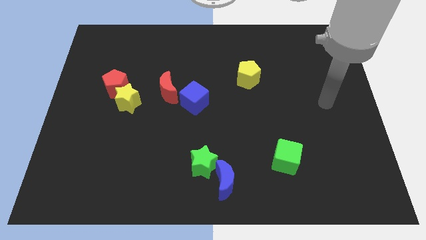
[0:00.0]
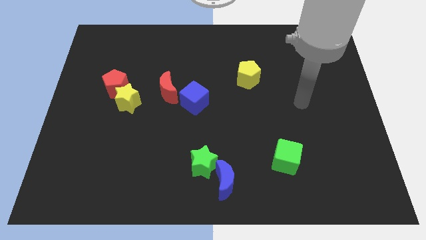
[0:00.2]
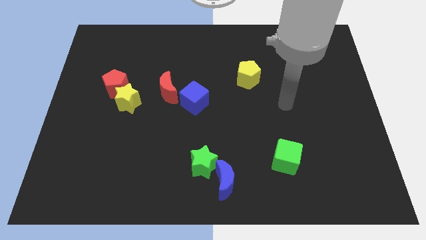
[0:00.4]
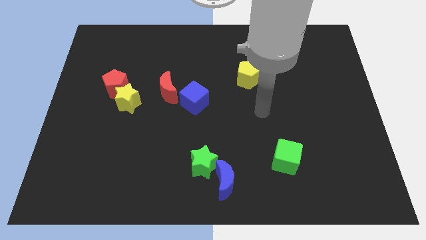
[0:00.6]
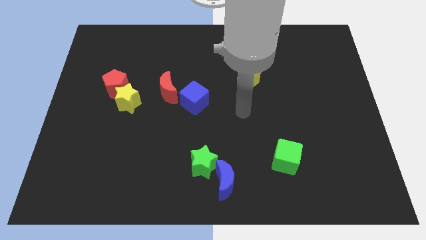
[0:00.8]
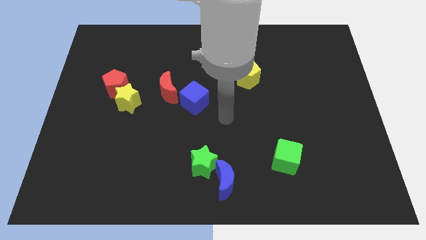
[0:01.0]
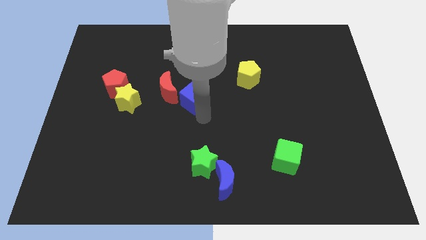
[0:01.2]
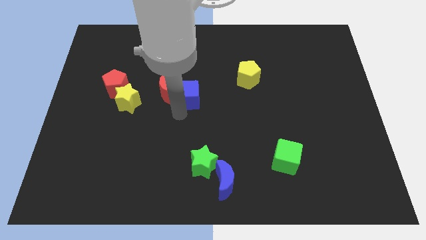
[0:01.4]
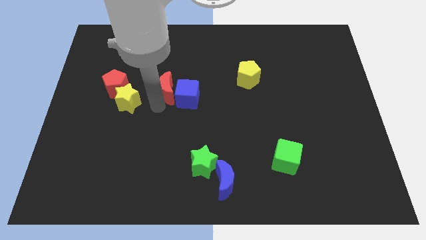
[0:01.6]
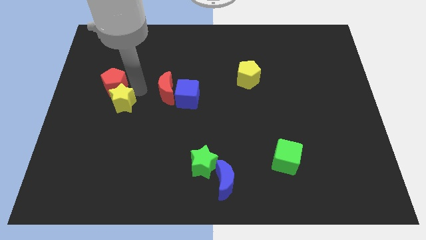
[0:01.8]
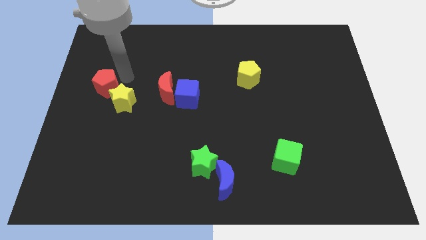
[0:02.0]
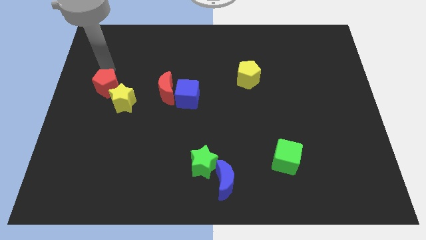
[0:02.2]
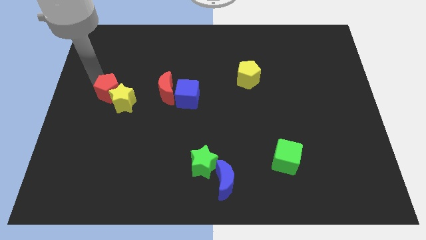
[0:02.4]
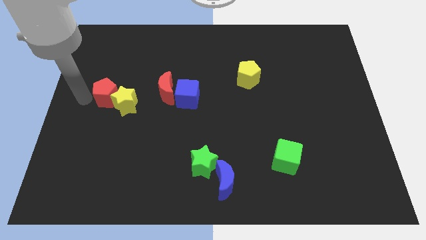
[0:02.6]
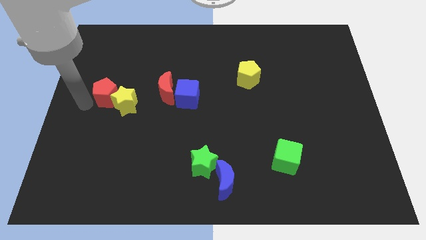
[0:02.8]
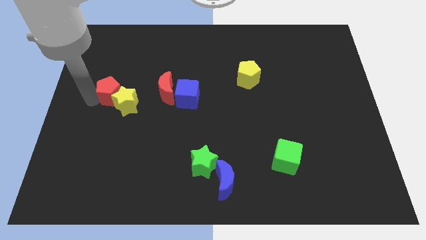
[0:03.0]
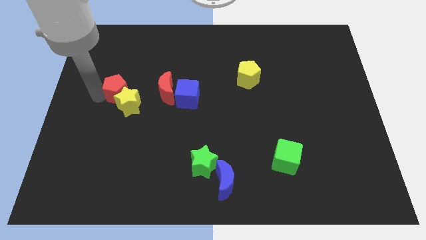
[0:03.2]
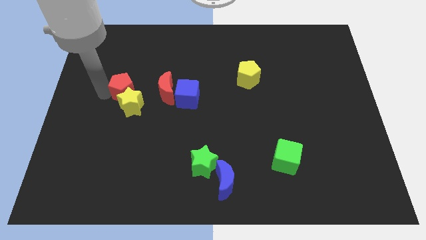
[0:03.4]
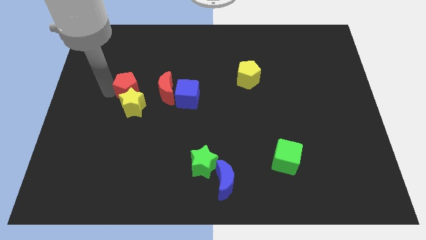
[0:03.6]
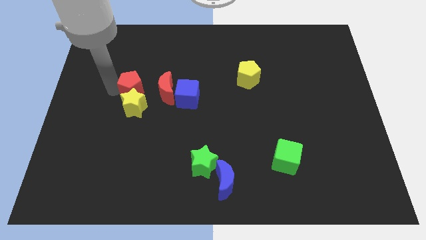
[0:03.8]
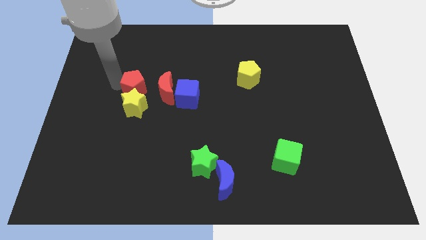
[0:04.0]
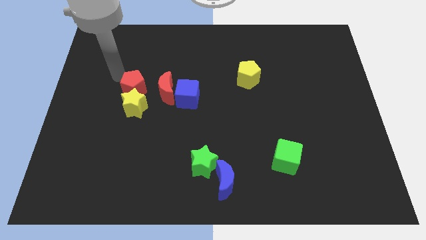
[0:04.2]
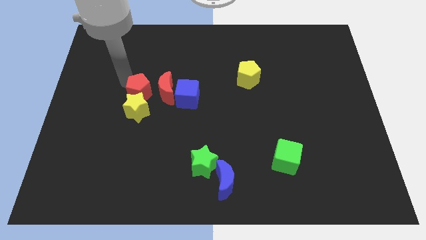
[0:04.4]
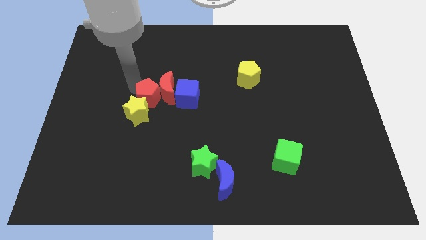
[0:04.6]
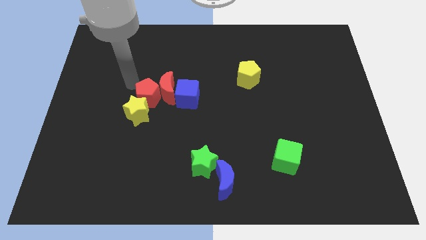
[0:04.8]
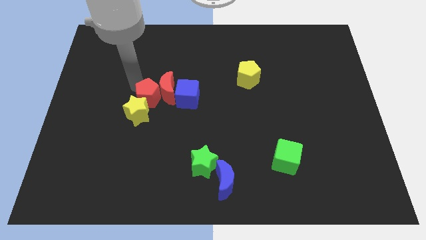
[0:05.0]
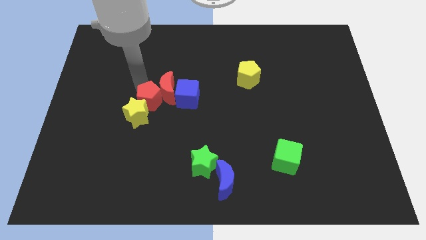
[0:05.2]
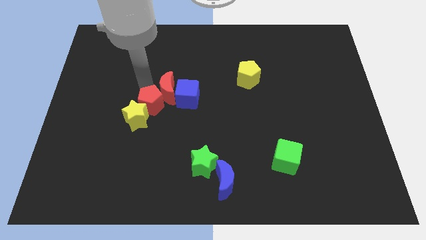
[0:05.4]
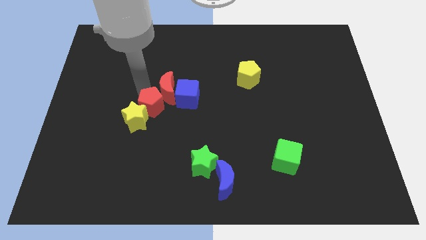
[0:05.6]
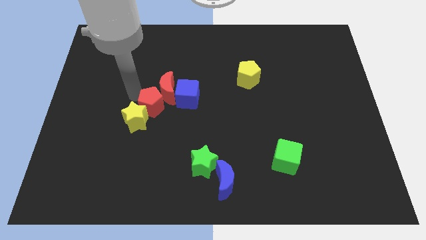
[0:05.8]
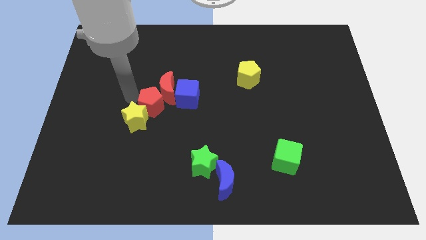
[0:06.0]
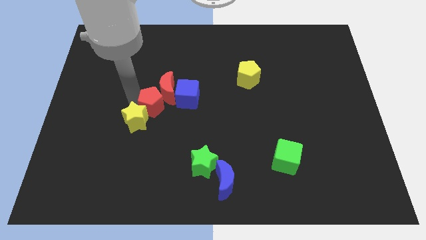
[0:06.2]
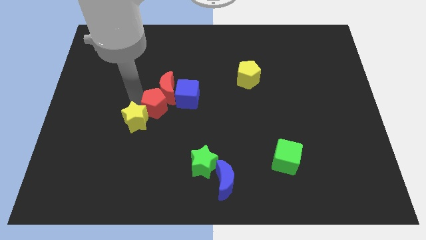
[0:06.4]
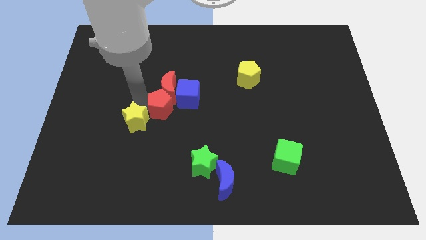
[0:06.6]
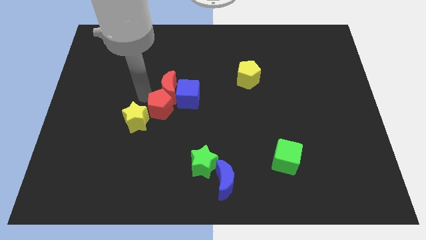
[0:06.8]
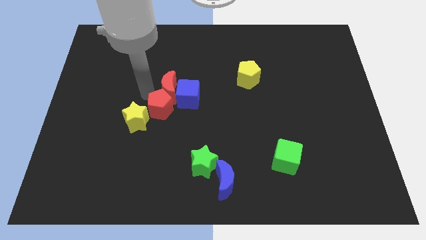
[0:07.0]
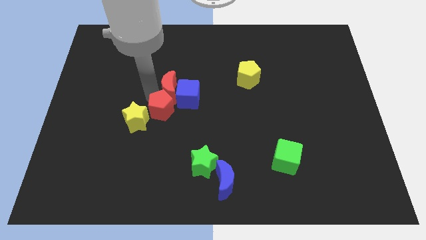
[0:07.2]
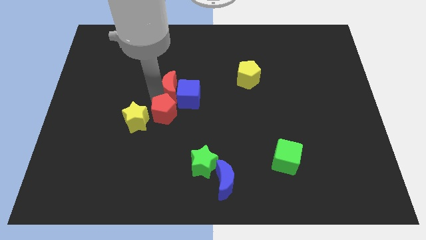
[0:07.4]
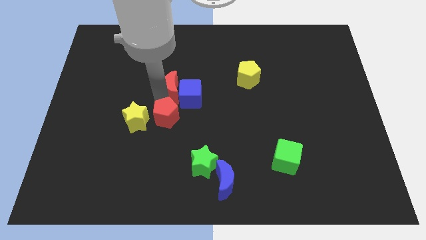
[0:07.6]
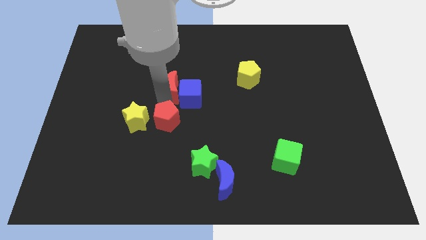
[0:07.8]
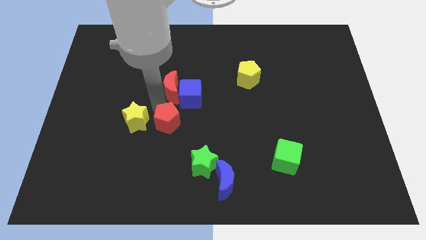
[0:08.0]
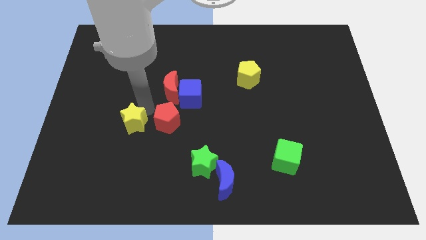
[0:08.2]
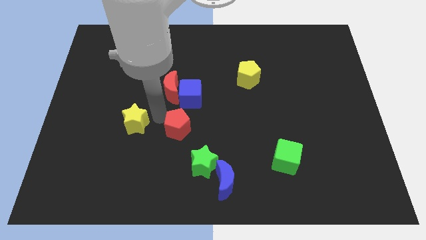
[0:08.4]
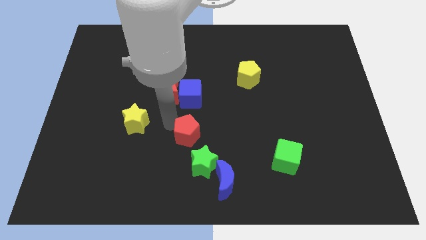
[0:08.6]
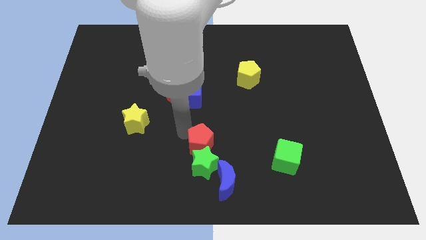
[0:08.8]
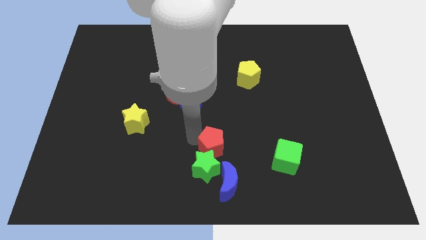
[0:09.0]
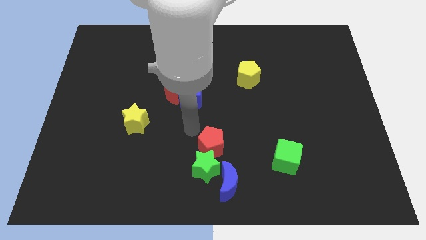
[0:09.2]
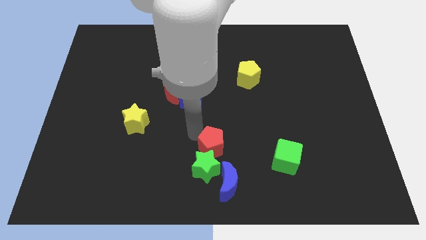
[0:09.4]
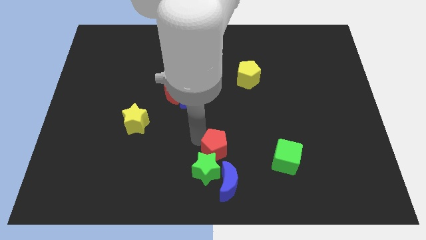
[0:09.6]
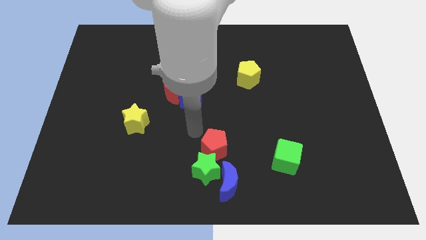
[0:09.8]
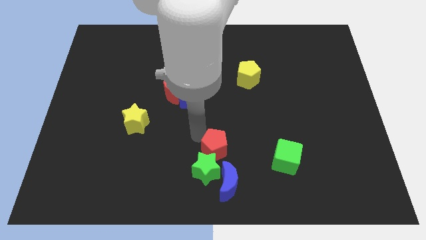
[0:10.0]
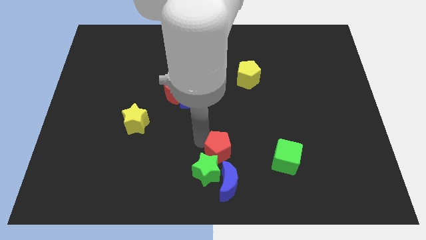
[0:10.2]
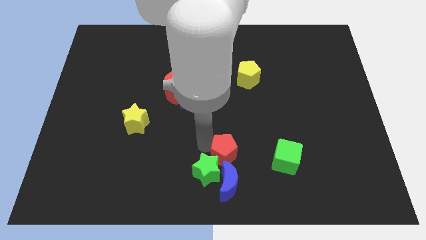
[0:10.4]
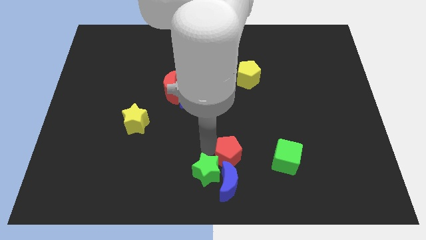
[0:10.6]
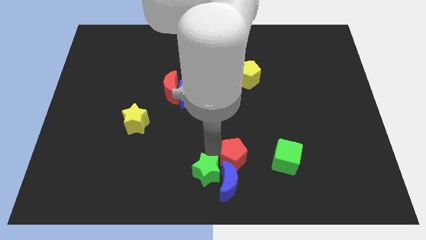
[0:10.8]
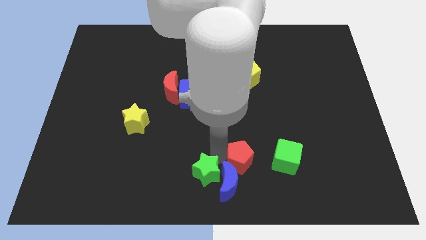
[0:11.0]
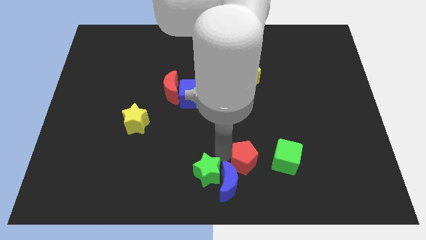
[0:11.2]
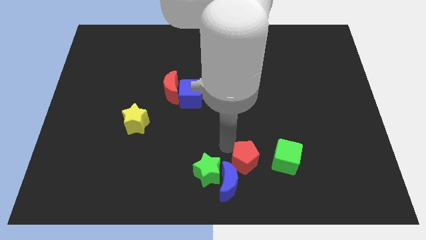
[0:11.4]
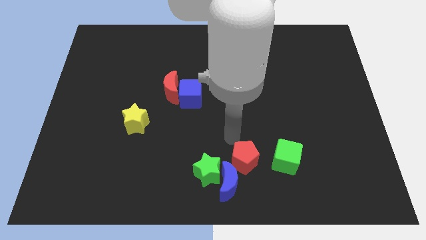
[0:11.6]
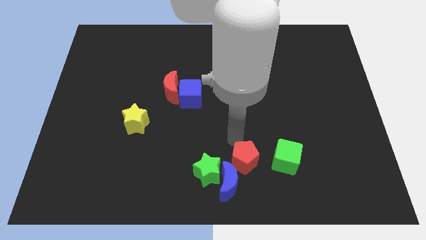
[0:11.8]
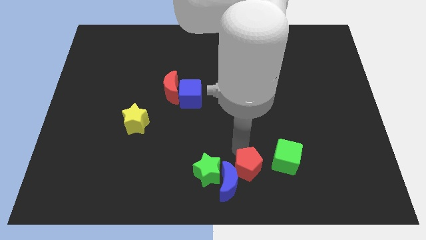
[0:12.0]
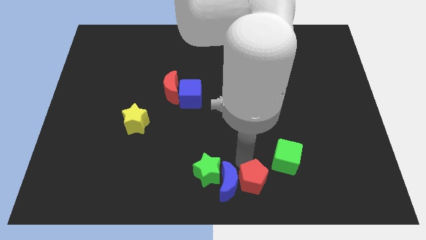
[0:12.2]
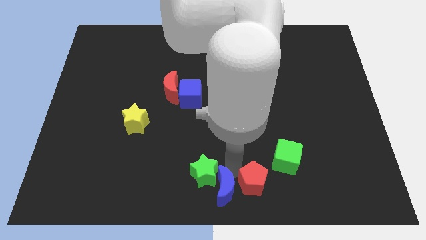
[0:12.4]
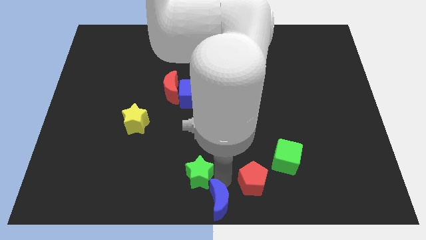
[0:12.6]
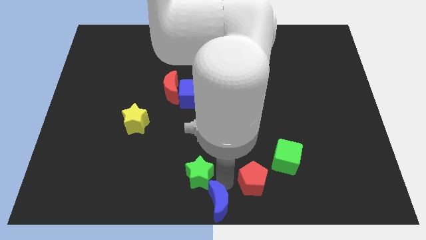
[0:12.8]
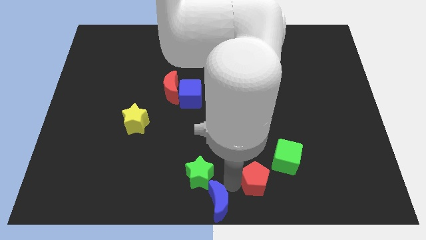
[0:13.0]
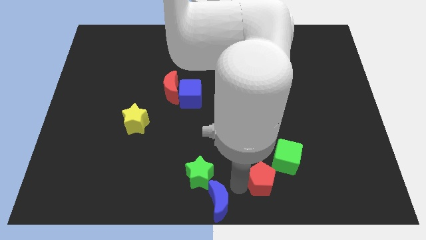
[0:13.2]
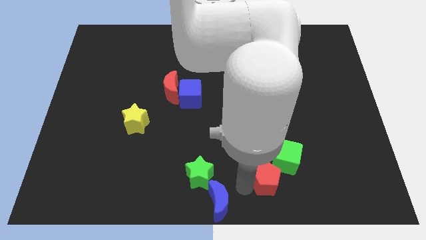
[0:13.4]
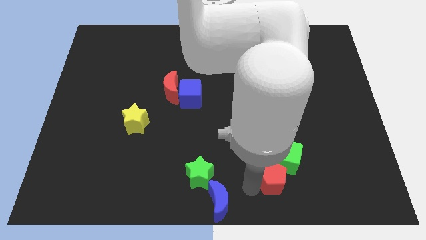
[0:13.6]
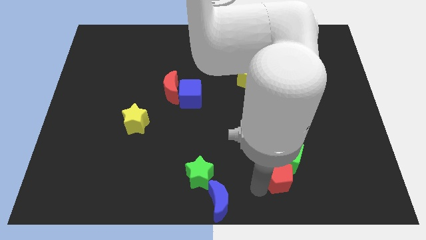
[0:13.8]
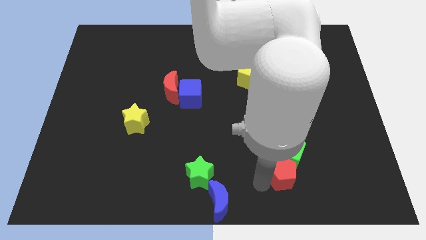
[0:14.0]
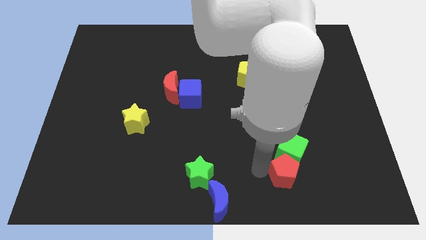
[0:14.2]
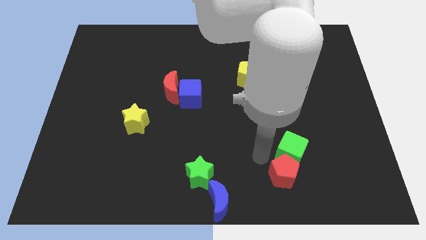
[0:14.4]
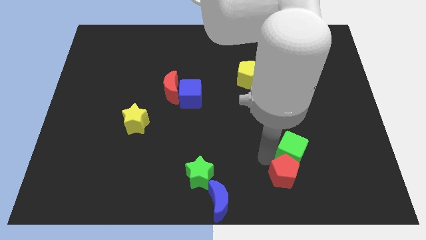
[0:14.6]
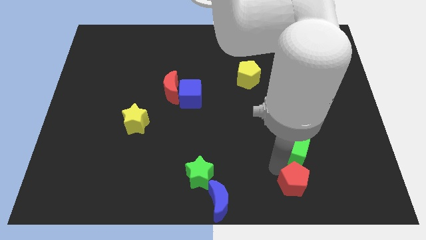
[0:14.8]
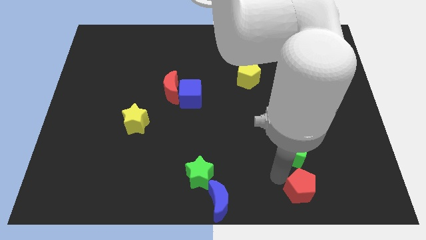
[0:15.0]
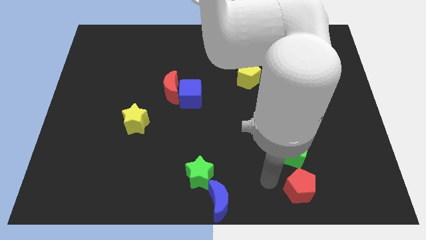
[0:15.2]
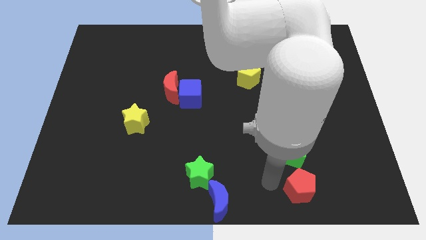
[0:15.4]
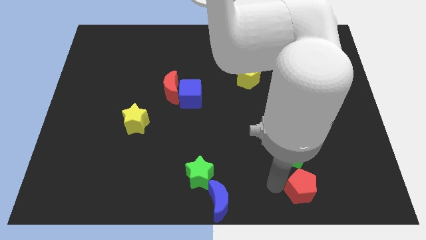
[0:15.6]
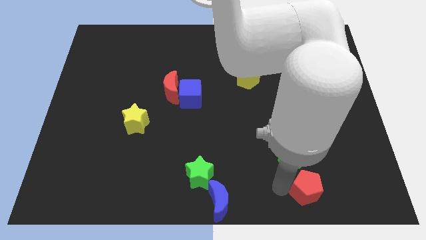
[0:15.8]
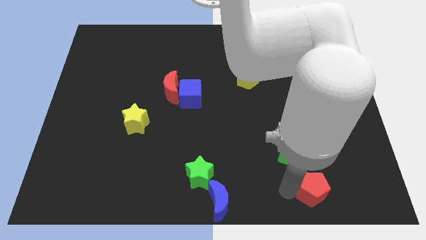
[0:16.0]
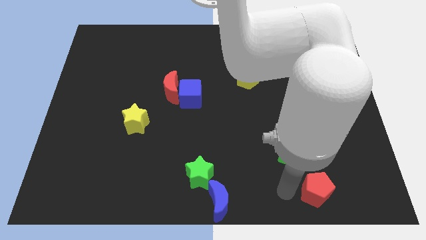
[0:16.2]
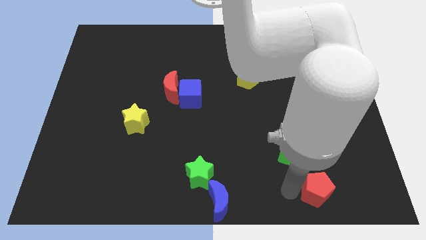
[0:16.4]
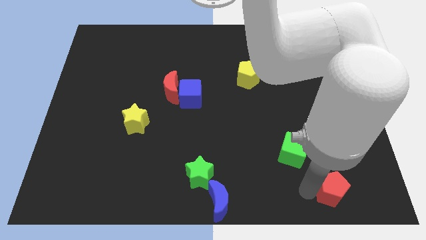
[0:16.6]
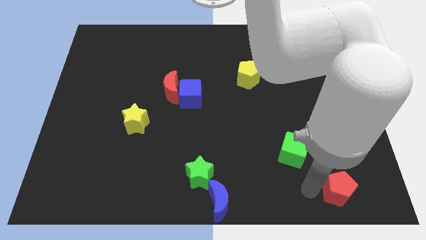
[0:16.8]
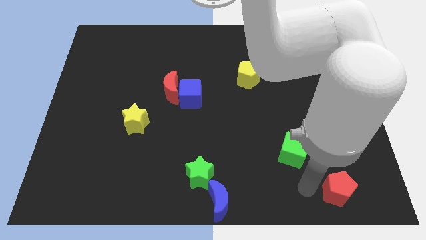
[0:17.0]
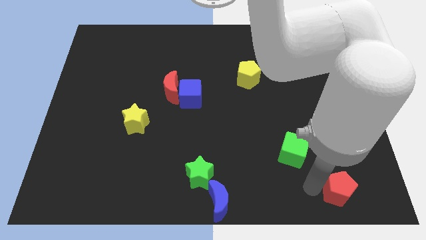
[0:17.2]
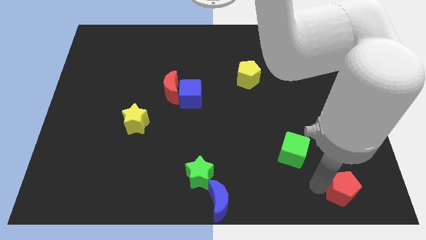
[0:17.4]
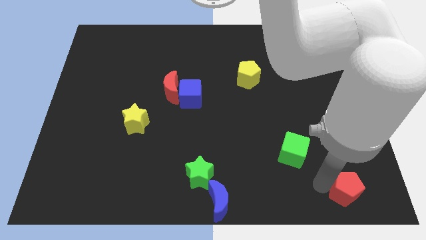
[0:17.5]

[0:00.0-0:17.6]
put the red pentagon to the bottom right
